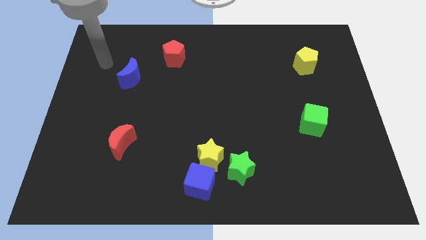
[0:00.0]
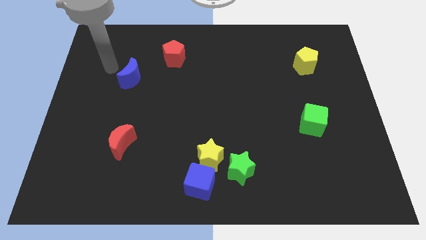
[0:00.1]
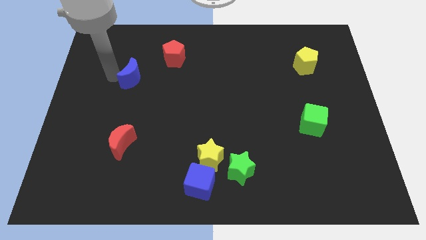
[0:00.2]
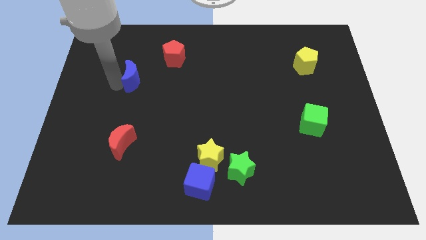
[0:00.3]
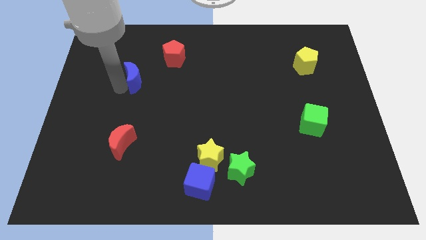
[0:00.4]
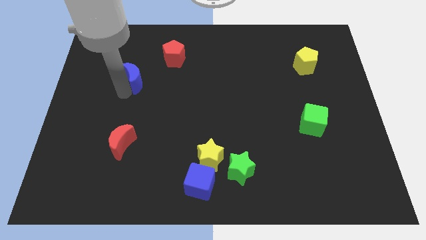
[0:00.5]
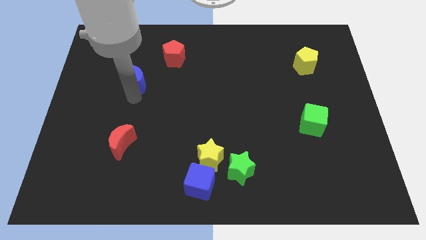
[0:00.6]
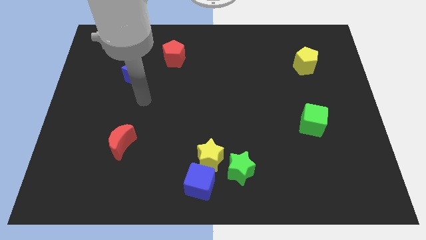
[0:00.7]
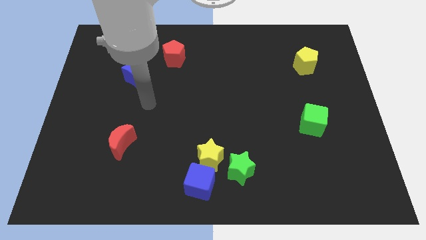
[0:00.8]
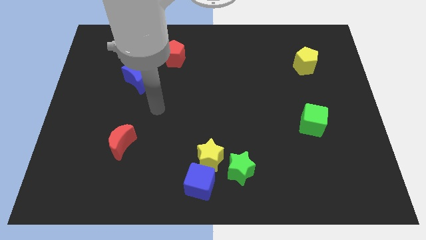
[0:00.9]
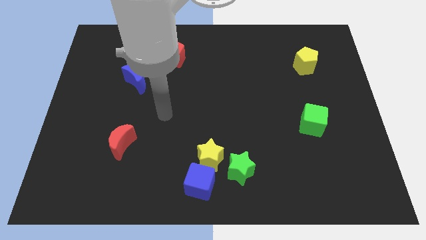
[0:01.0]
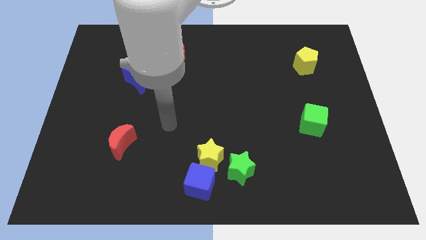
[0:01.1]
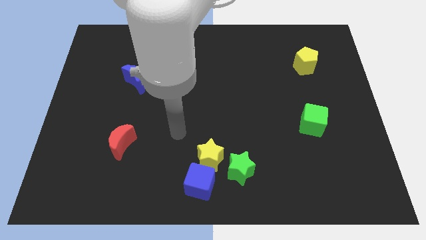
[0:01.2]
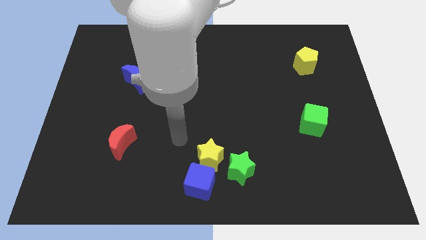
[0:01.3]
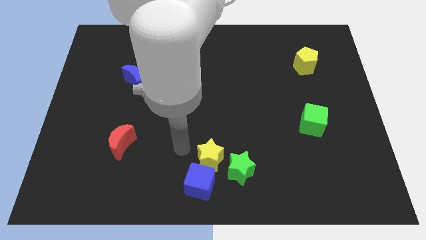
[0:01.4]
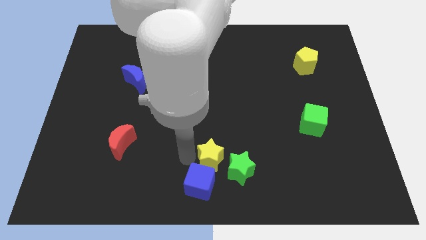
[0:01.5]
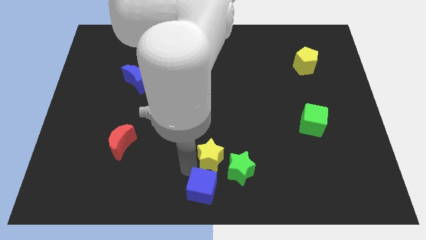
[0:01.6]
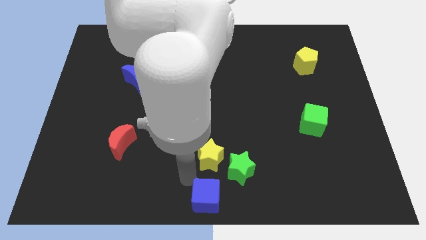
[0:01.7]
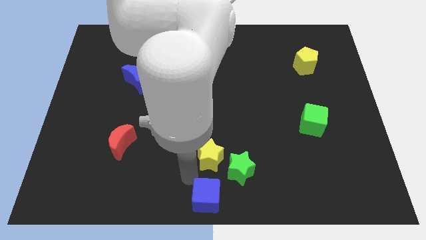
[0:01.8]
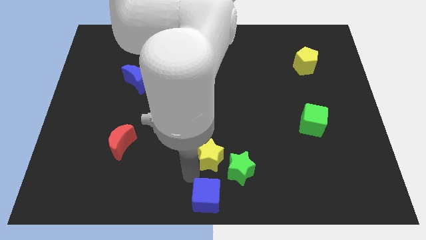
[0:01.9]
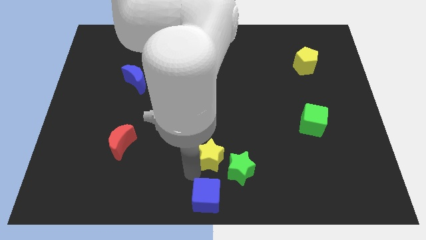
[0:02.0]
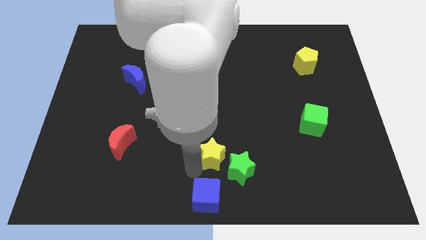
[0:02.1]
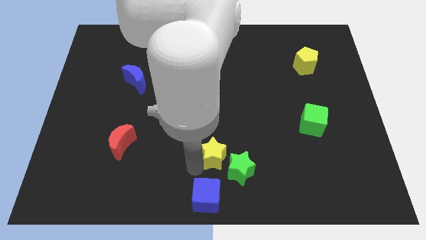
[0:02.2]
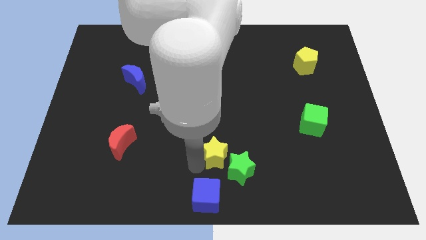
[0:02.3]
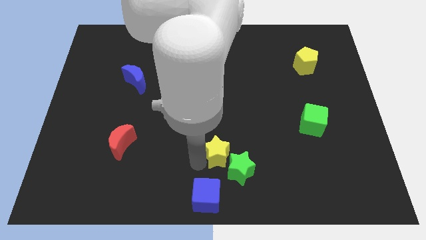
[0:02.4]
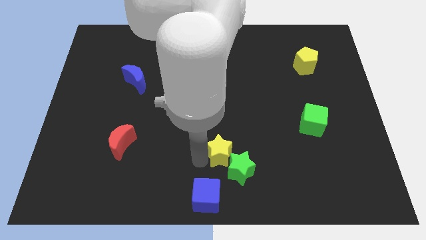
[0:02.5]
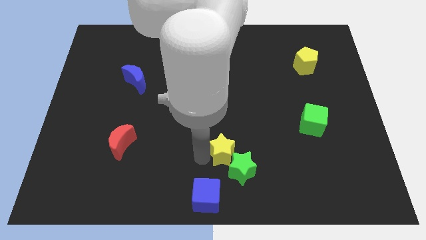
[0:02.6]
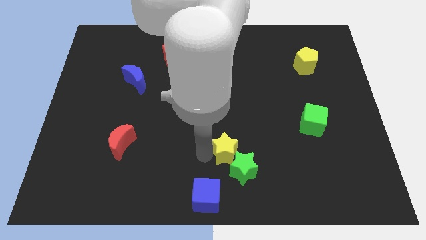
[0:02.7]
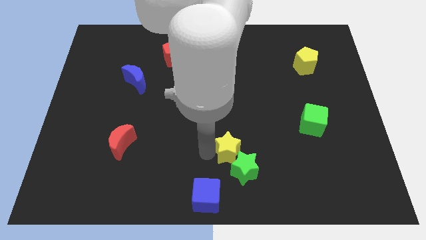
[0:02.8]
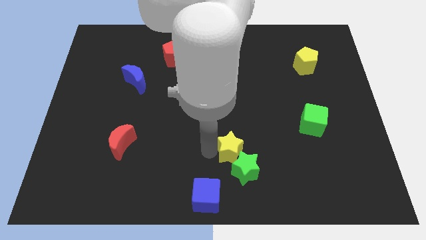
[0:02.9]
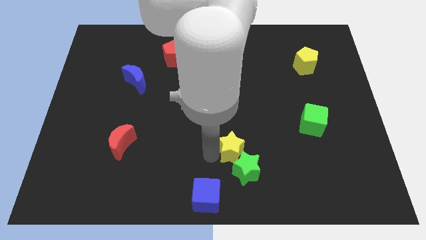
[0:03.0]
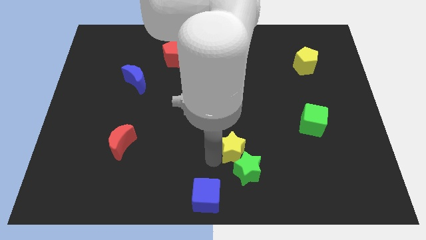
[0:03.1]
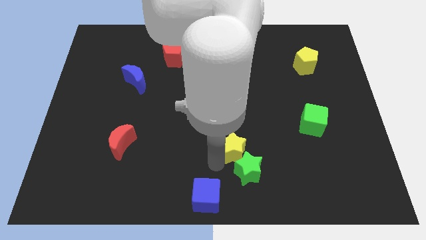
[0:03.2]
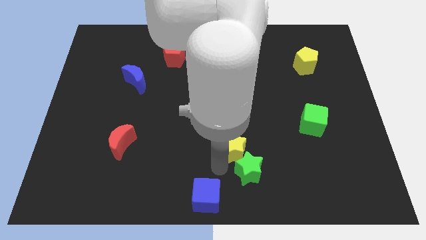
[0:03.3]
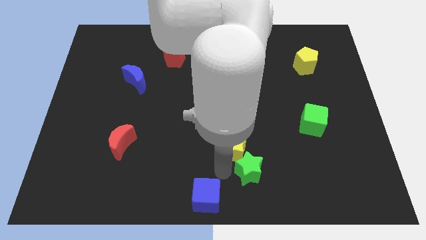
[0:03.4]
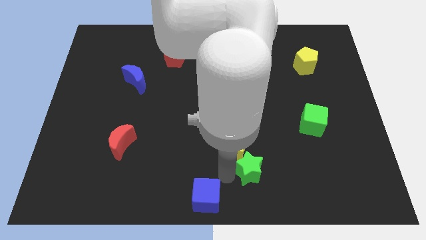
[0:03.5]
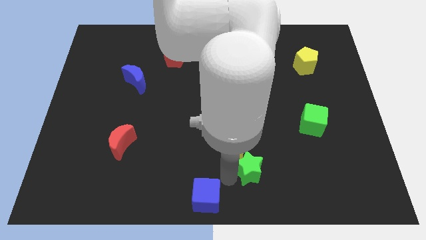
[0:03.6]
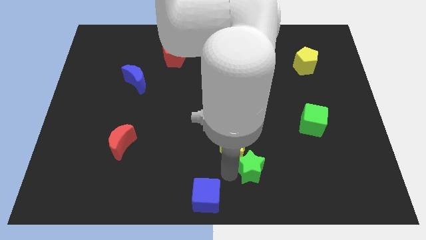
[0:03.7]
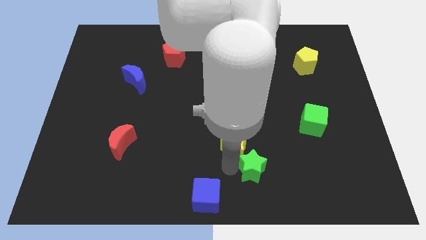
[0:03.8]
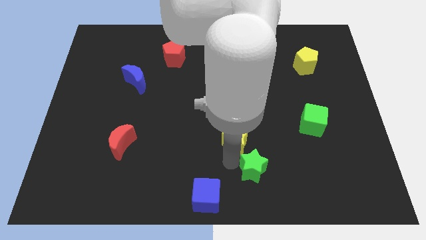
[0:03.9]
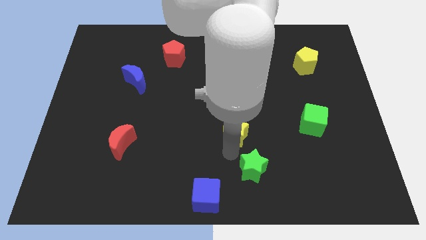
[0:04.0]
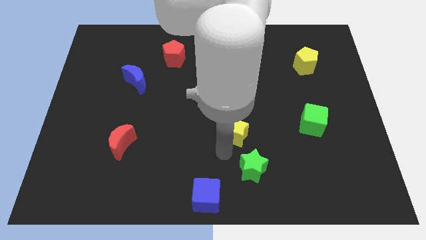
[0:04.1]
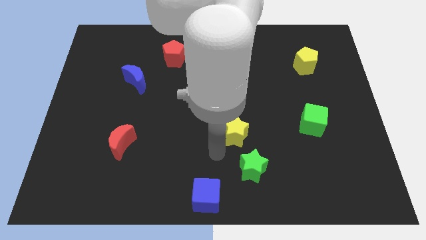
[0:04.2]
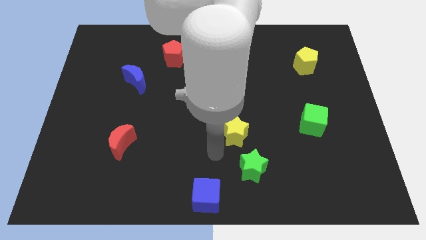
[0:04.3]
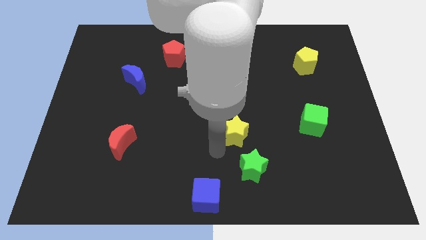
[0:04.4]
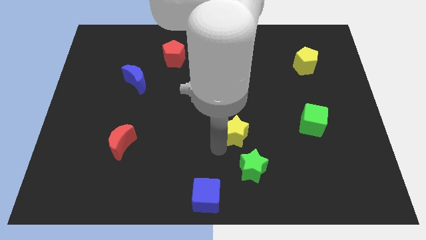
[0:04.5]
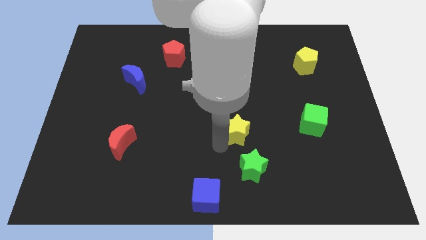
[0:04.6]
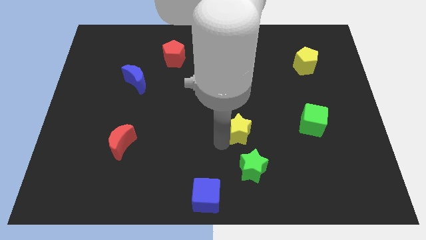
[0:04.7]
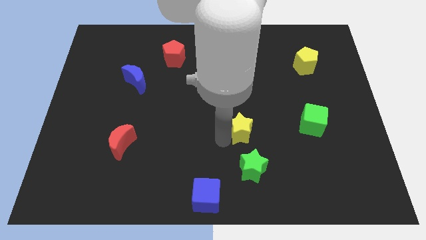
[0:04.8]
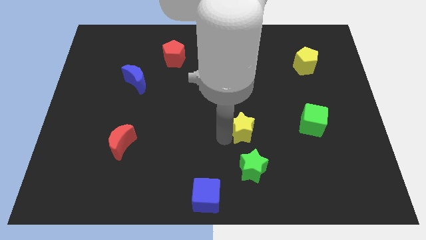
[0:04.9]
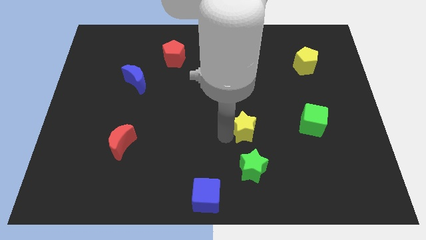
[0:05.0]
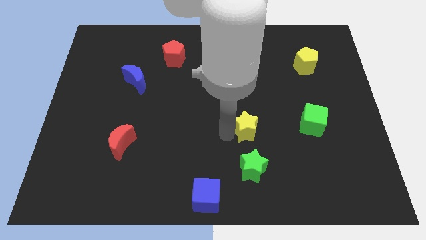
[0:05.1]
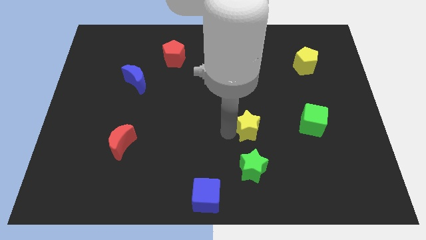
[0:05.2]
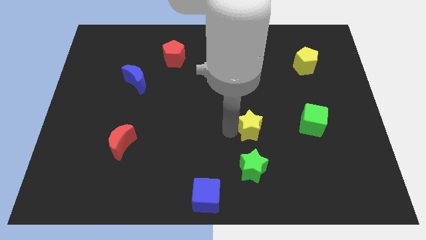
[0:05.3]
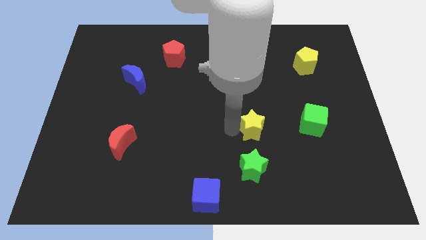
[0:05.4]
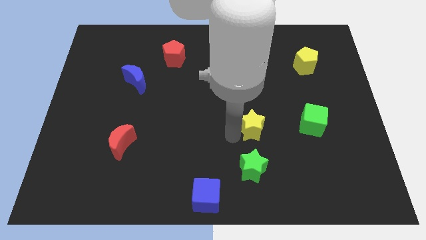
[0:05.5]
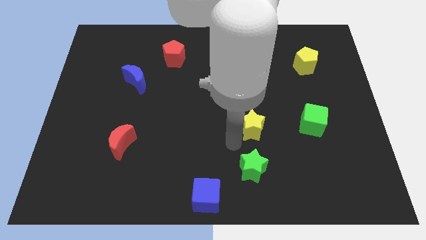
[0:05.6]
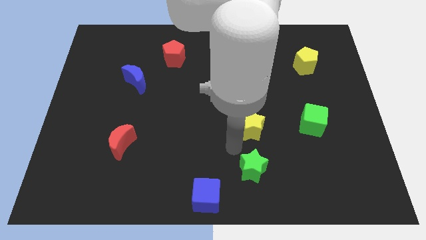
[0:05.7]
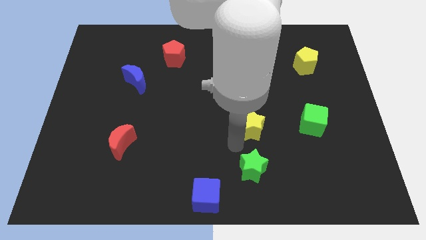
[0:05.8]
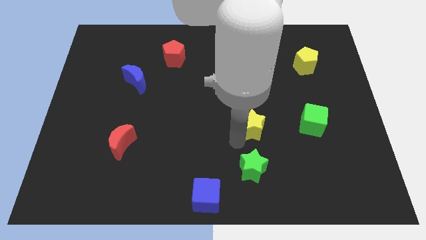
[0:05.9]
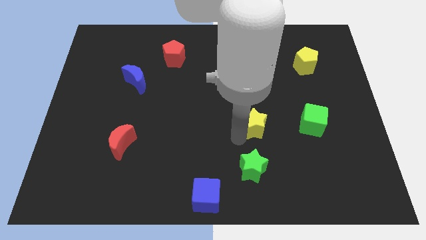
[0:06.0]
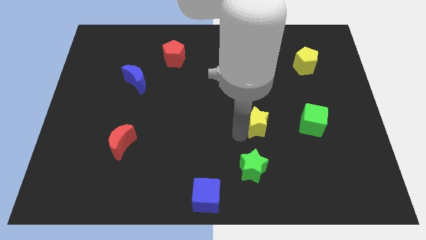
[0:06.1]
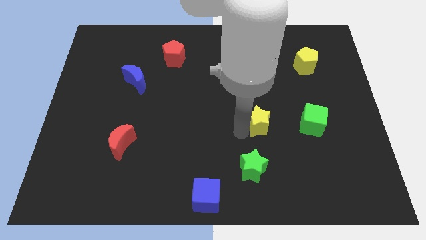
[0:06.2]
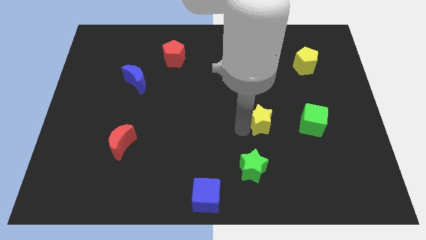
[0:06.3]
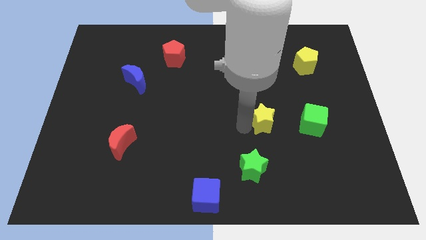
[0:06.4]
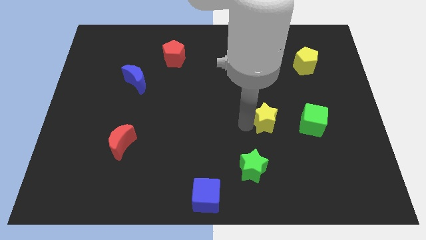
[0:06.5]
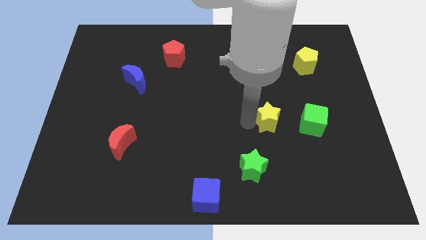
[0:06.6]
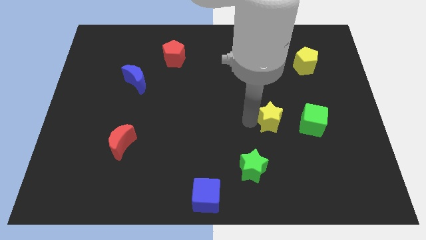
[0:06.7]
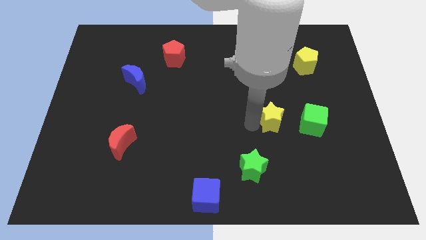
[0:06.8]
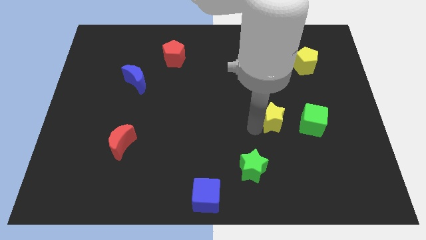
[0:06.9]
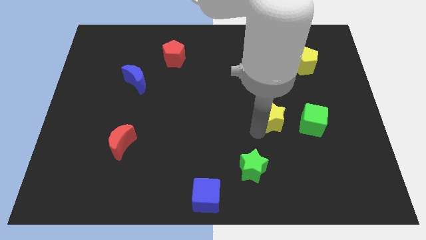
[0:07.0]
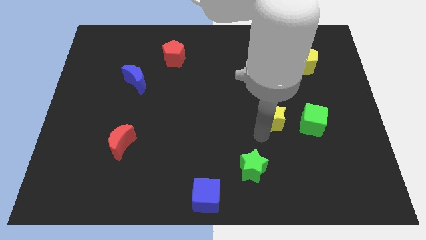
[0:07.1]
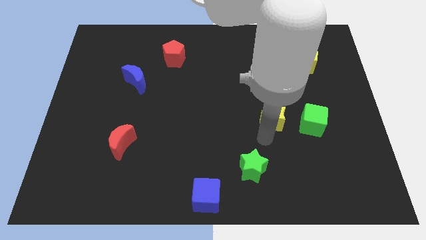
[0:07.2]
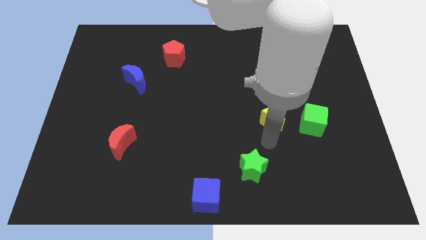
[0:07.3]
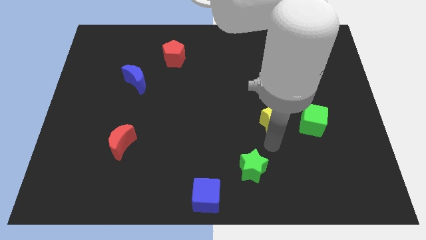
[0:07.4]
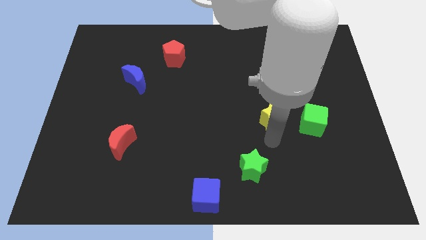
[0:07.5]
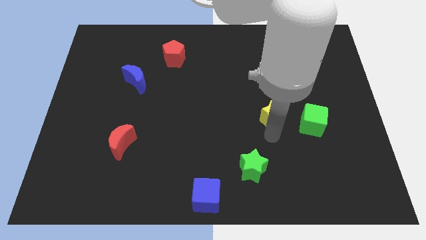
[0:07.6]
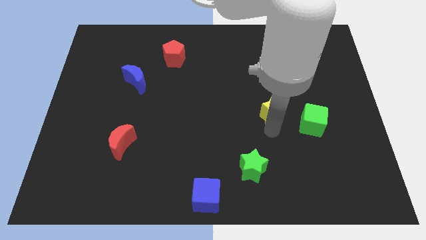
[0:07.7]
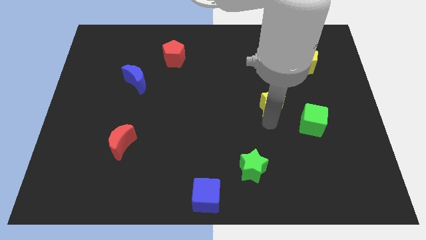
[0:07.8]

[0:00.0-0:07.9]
move the yellow star upwards and right

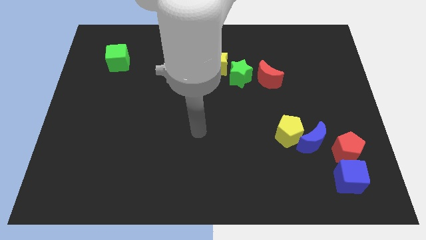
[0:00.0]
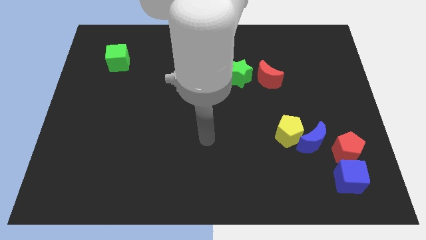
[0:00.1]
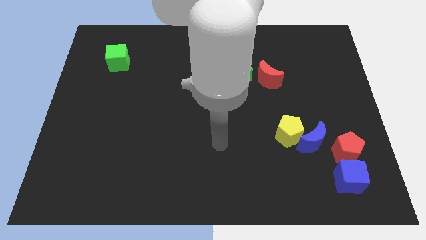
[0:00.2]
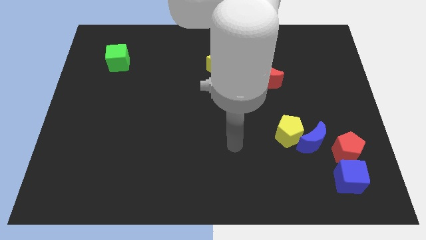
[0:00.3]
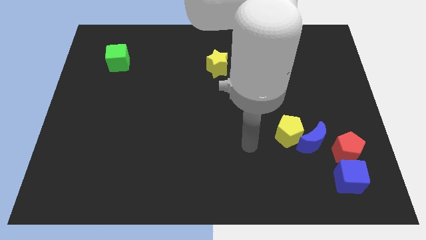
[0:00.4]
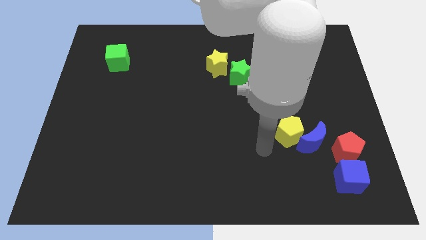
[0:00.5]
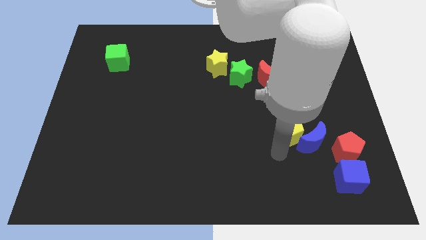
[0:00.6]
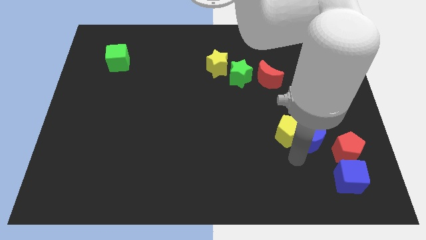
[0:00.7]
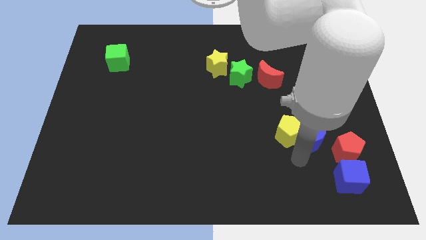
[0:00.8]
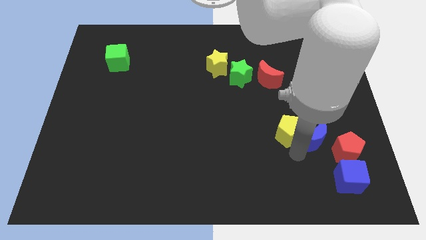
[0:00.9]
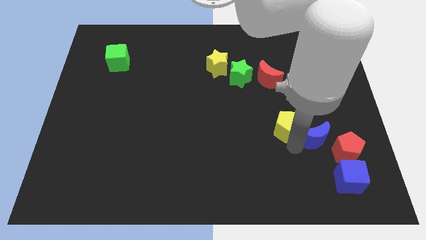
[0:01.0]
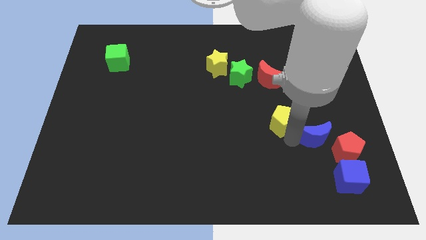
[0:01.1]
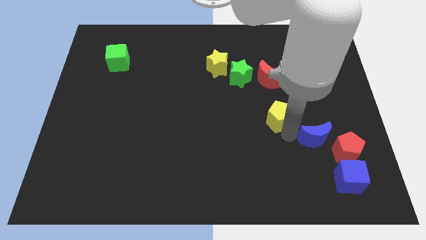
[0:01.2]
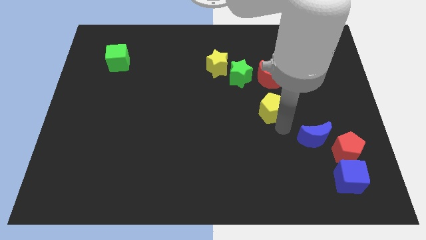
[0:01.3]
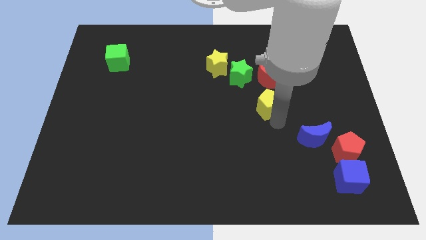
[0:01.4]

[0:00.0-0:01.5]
move the yellow pentagon up a little bit
